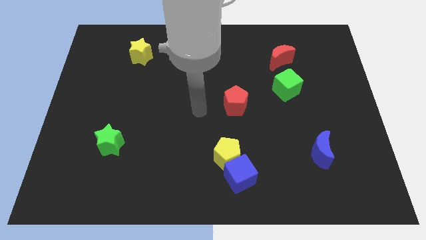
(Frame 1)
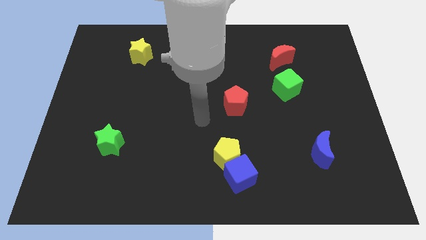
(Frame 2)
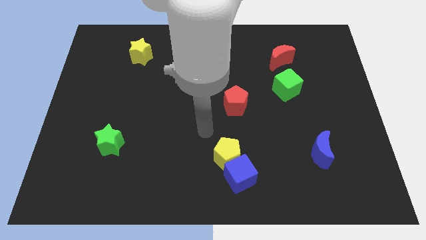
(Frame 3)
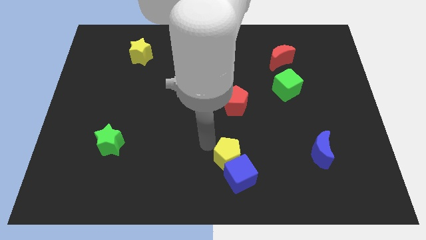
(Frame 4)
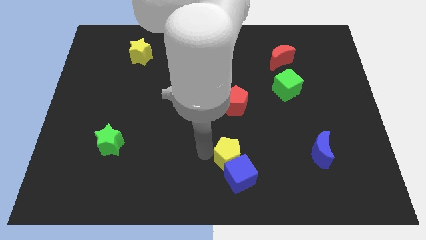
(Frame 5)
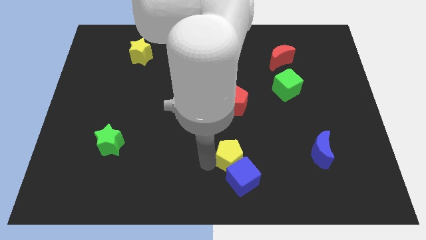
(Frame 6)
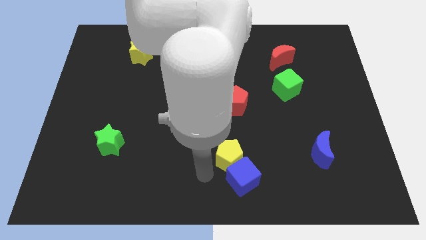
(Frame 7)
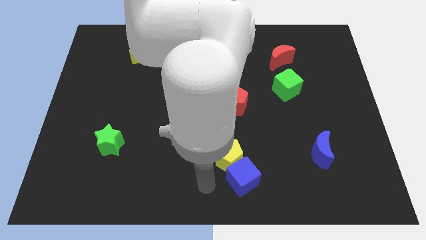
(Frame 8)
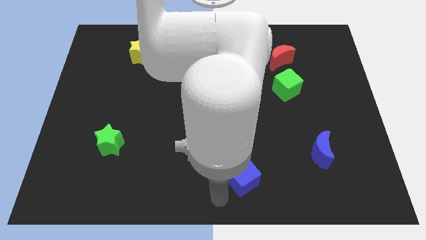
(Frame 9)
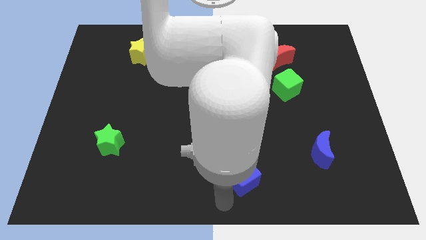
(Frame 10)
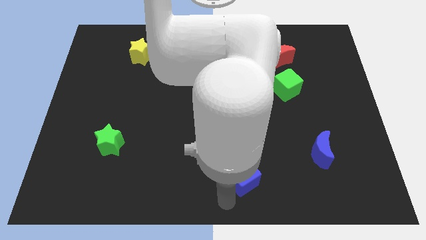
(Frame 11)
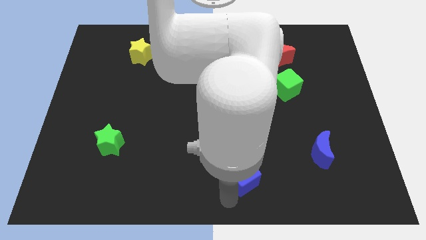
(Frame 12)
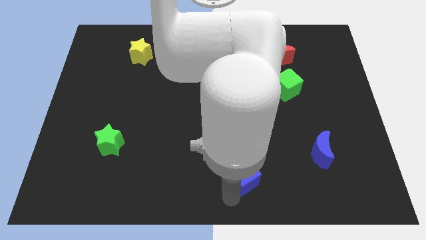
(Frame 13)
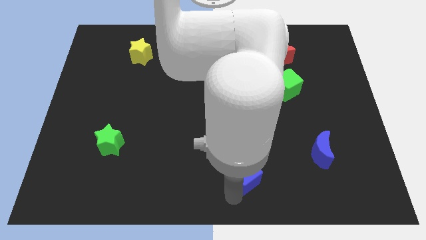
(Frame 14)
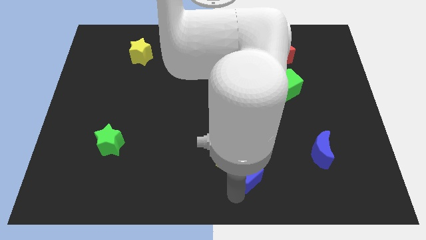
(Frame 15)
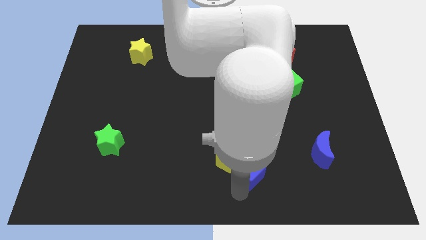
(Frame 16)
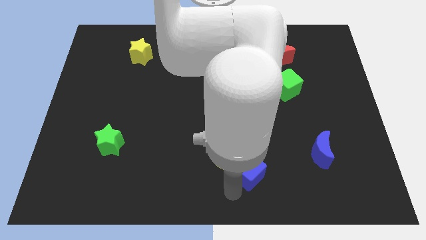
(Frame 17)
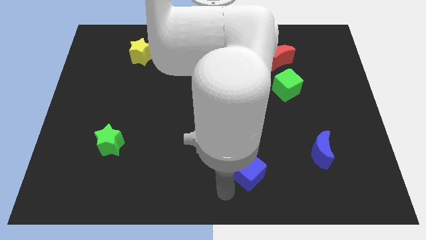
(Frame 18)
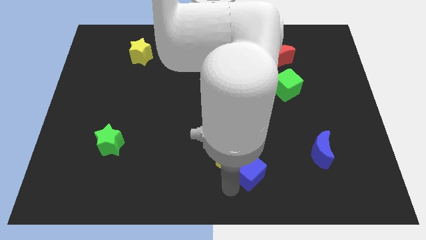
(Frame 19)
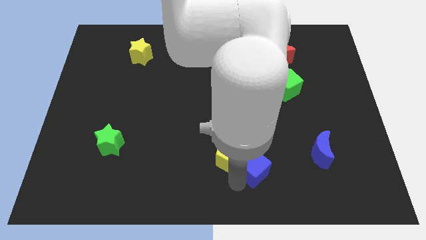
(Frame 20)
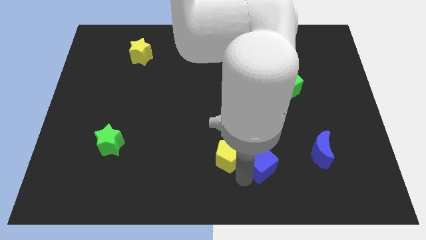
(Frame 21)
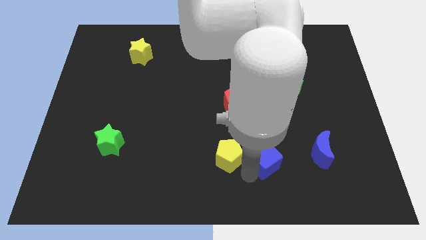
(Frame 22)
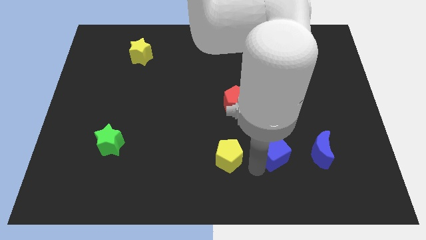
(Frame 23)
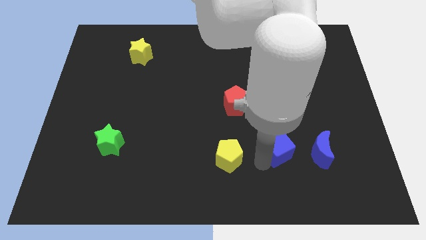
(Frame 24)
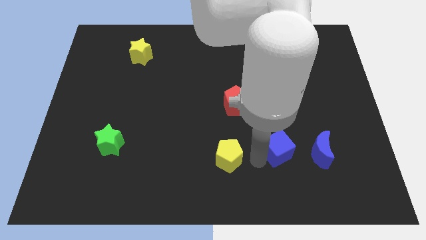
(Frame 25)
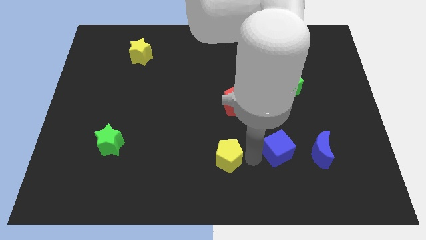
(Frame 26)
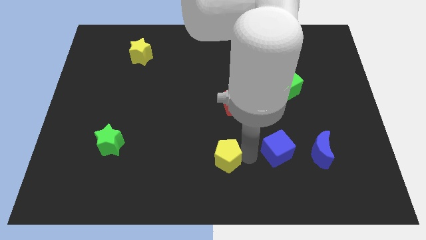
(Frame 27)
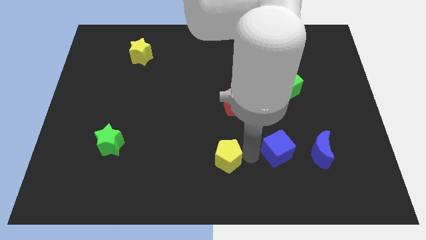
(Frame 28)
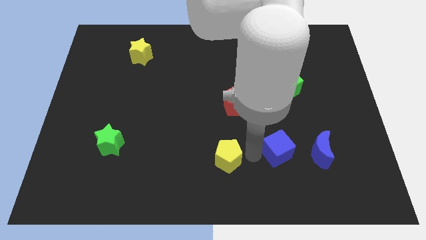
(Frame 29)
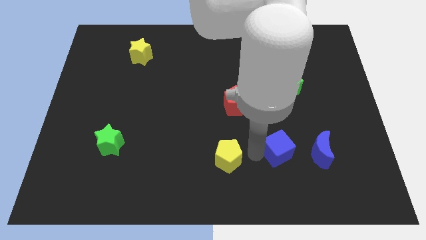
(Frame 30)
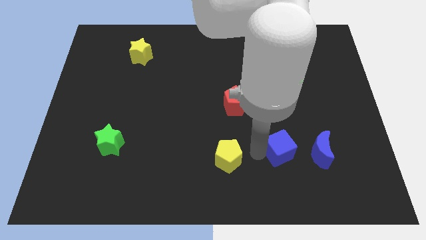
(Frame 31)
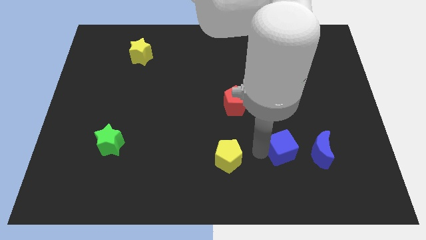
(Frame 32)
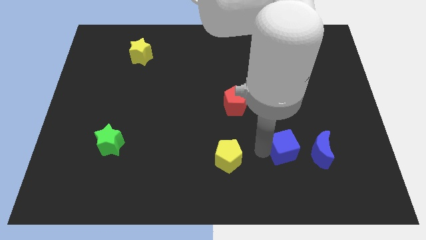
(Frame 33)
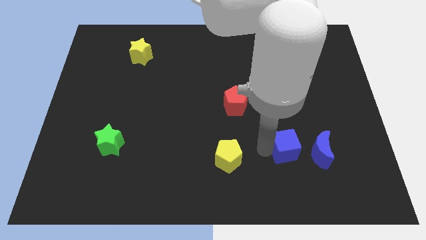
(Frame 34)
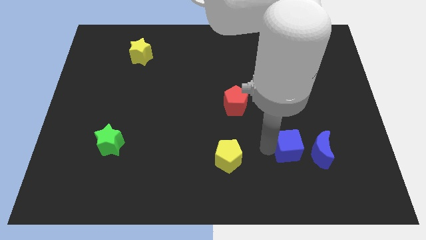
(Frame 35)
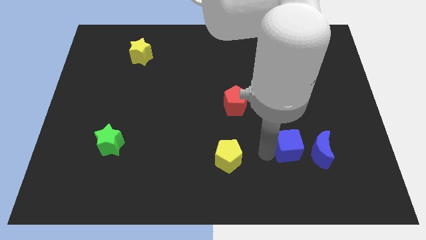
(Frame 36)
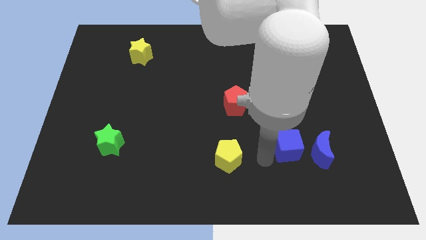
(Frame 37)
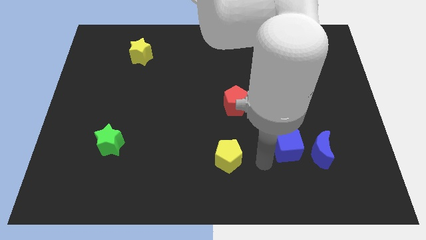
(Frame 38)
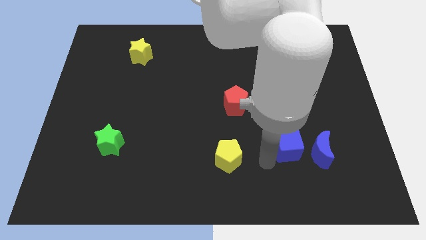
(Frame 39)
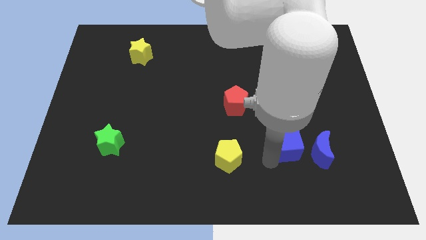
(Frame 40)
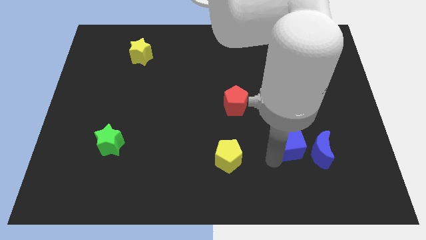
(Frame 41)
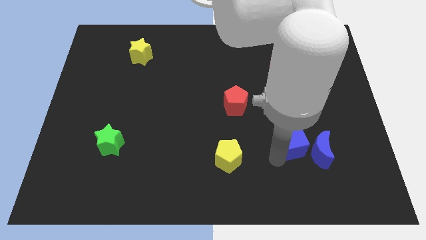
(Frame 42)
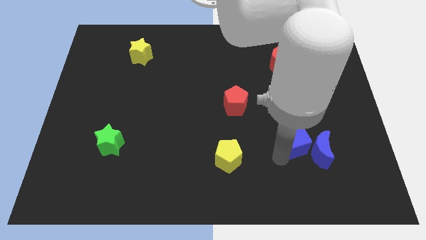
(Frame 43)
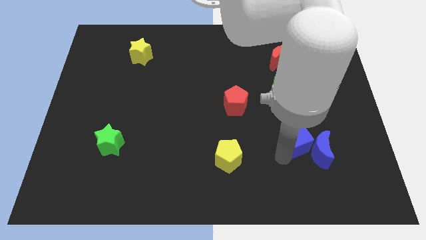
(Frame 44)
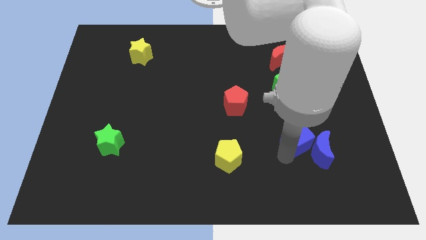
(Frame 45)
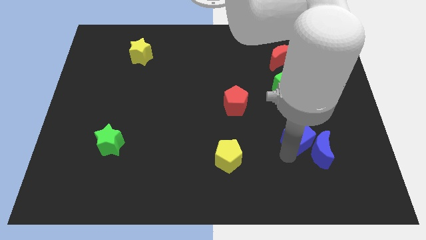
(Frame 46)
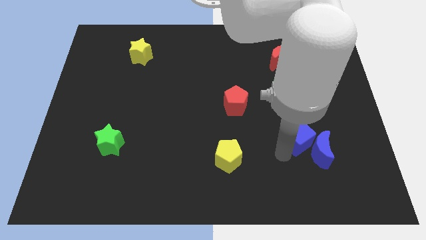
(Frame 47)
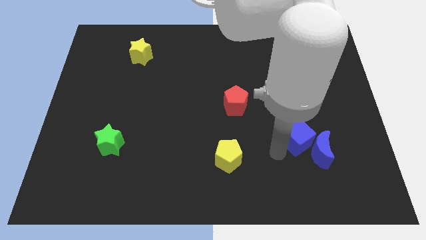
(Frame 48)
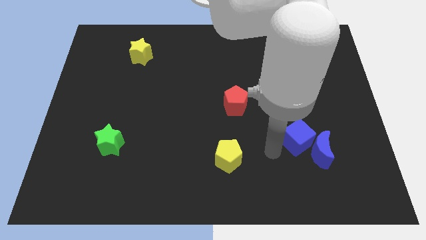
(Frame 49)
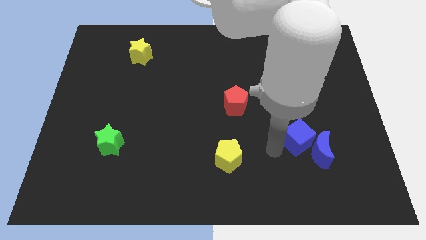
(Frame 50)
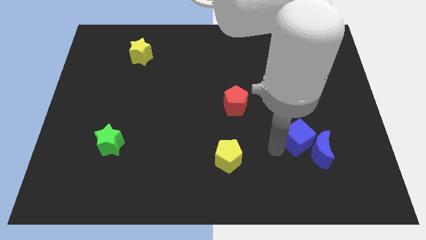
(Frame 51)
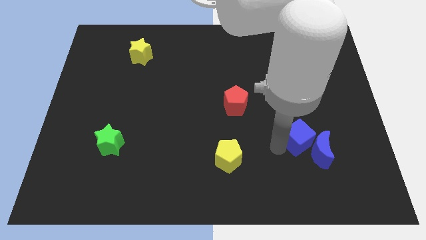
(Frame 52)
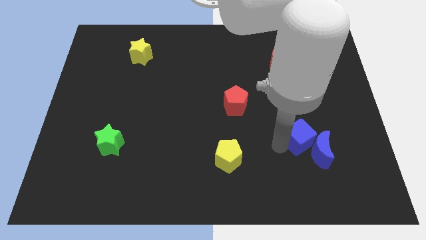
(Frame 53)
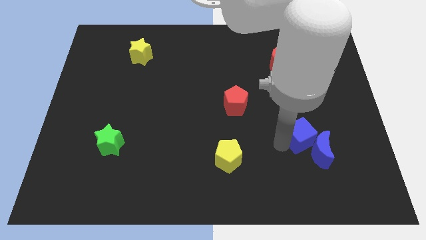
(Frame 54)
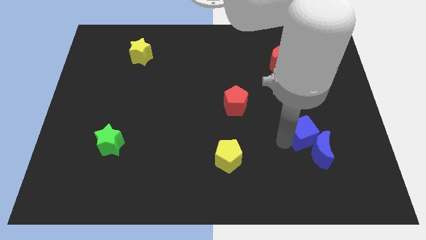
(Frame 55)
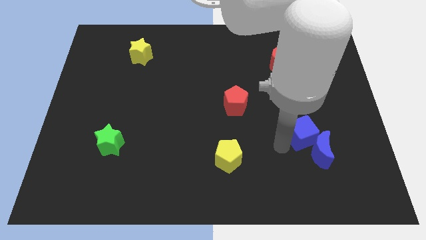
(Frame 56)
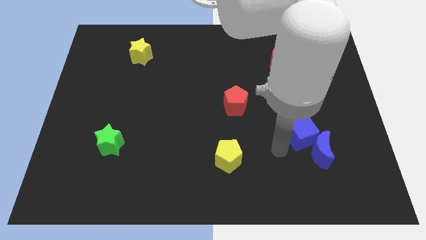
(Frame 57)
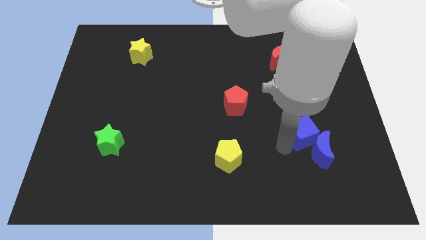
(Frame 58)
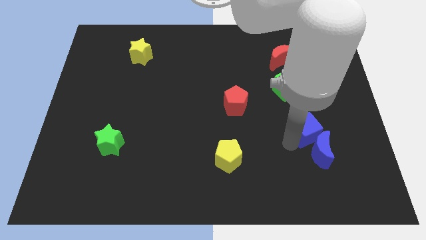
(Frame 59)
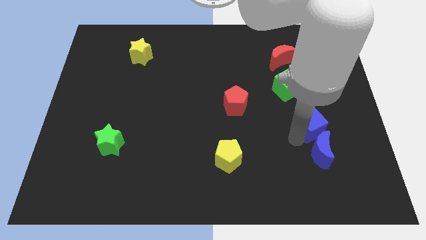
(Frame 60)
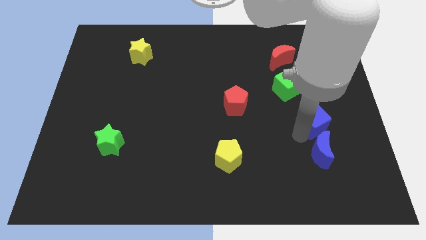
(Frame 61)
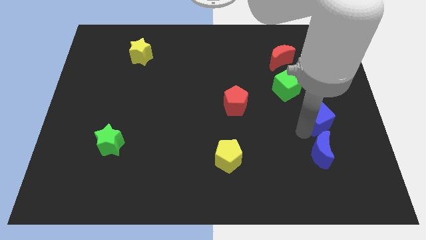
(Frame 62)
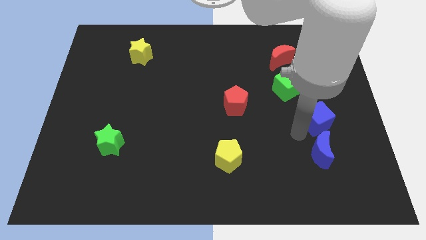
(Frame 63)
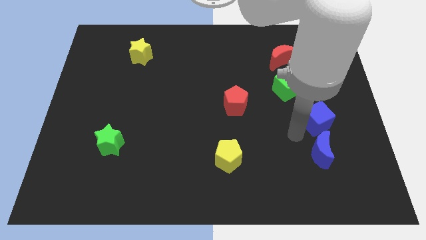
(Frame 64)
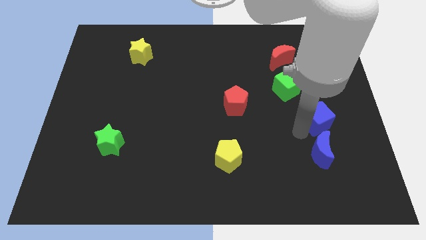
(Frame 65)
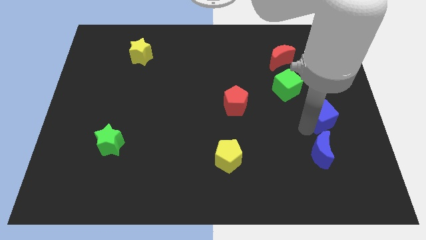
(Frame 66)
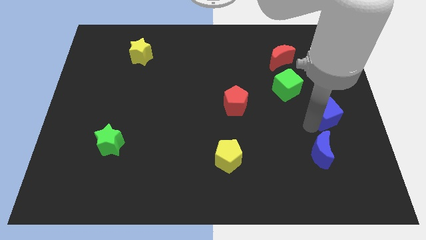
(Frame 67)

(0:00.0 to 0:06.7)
put the blue cube to the center right
